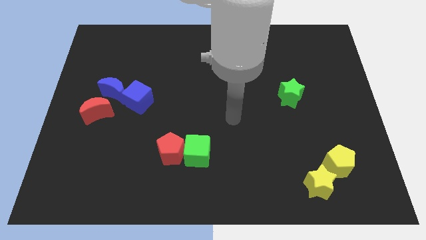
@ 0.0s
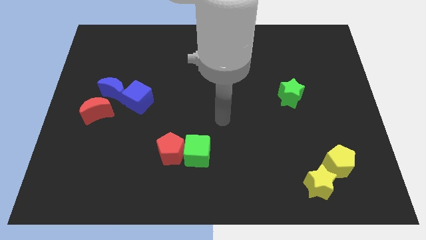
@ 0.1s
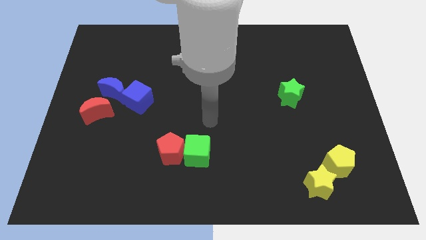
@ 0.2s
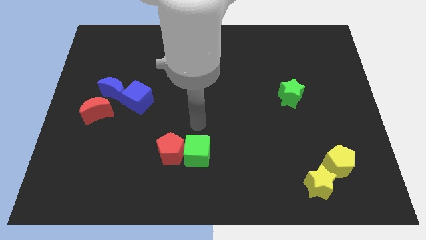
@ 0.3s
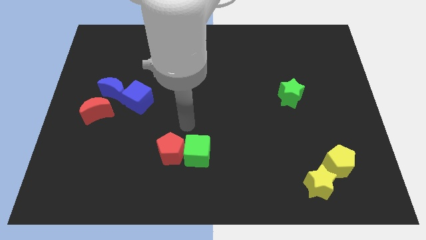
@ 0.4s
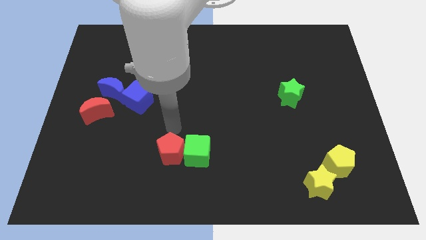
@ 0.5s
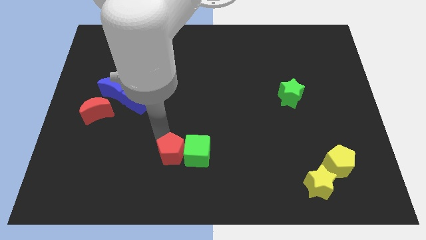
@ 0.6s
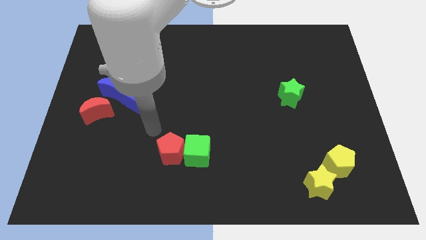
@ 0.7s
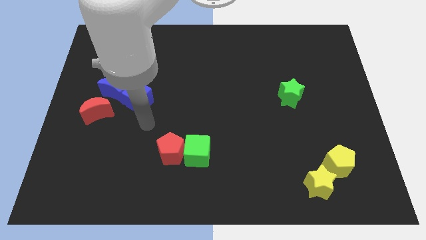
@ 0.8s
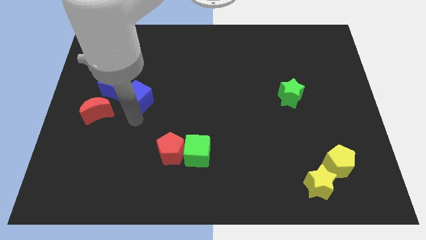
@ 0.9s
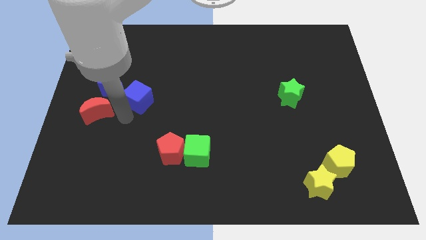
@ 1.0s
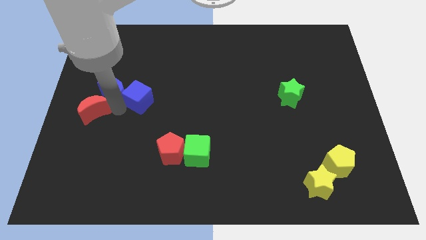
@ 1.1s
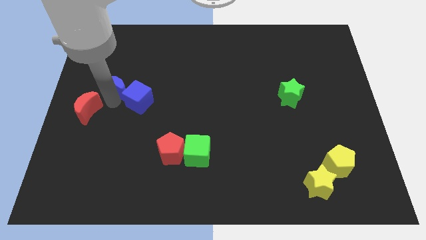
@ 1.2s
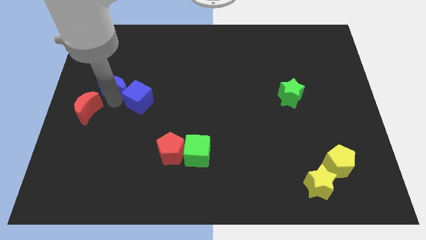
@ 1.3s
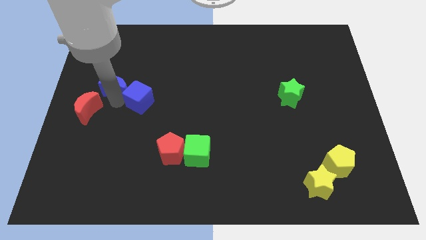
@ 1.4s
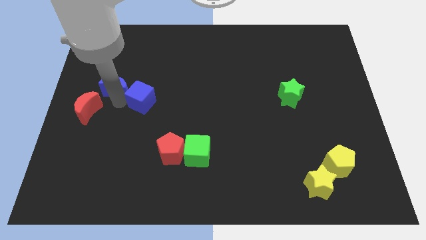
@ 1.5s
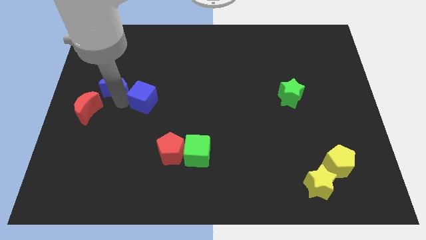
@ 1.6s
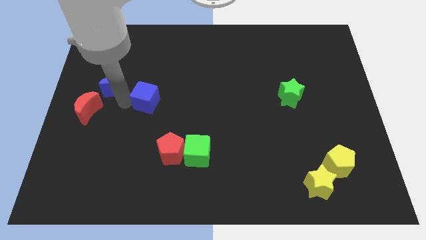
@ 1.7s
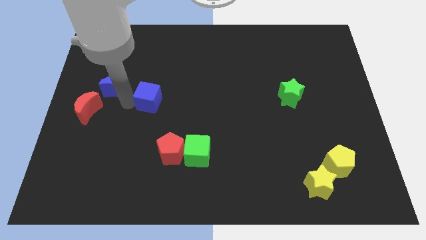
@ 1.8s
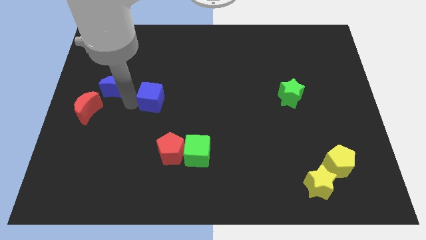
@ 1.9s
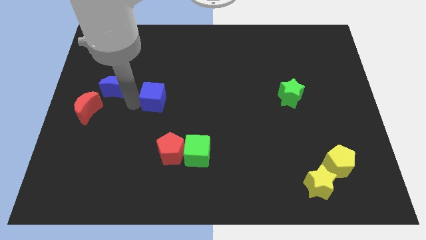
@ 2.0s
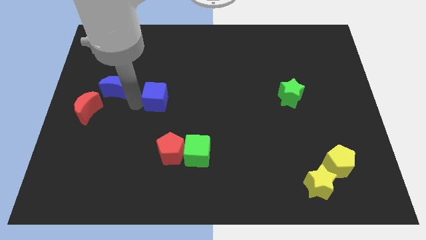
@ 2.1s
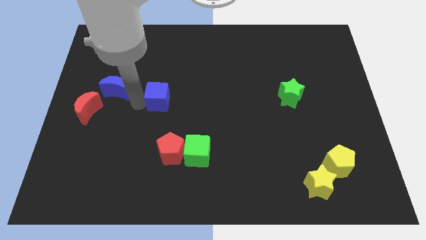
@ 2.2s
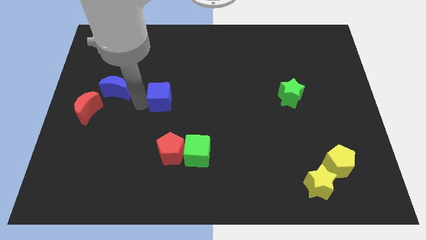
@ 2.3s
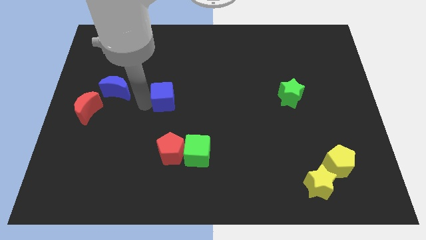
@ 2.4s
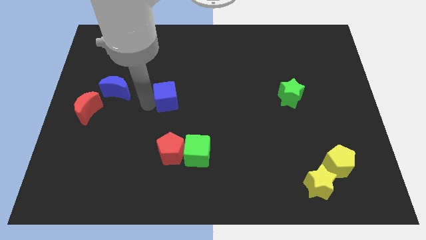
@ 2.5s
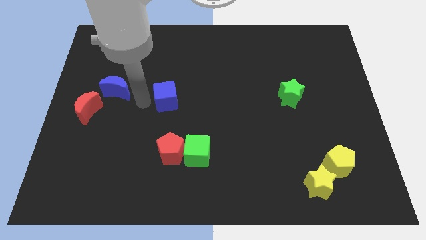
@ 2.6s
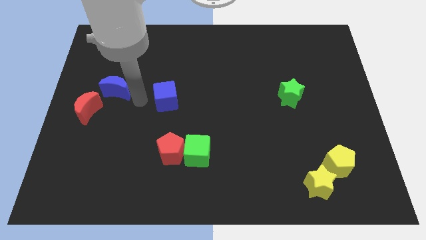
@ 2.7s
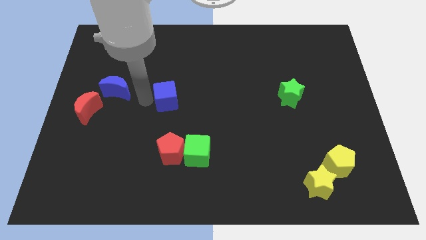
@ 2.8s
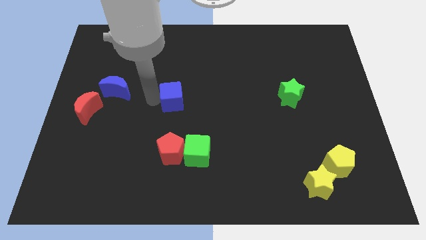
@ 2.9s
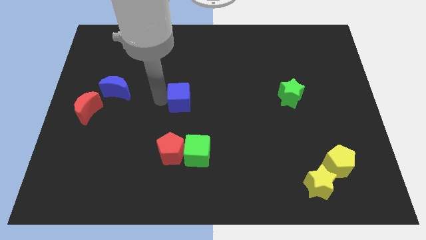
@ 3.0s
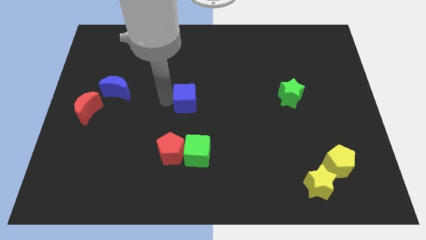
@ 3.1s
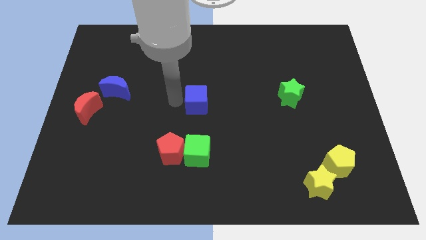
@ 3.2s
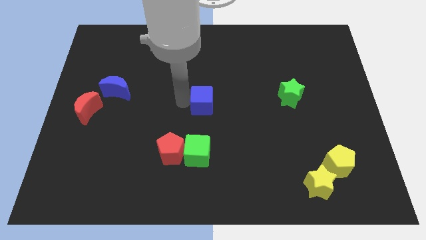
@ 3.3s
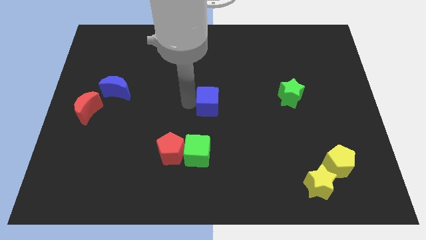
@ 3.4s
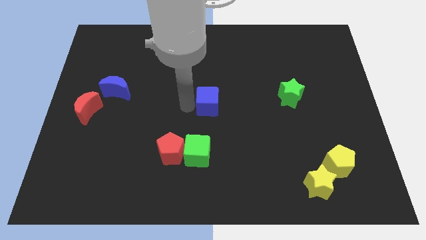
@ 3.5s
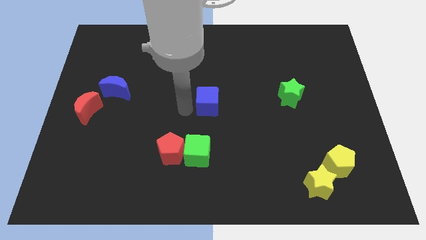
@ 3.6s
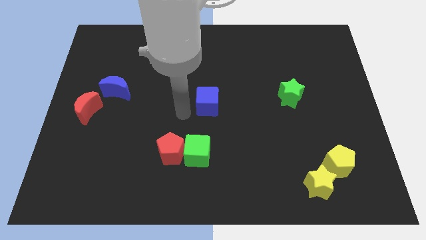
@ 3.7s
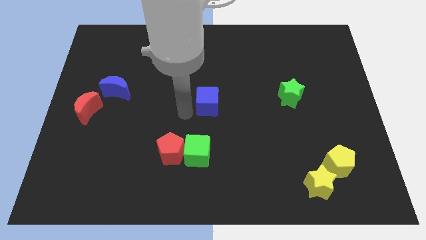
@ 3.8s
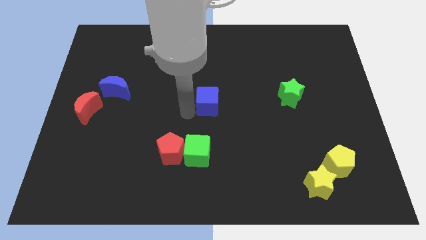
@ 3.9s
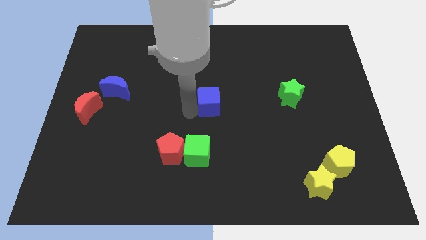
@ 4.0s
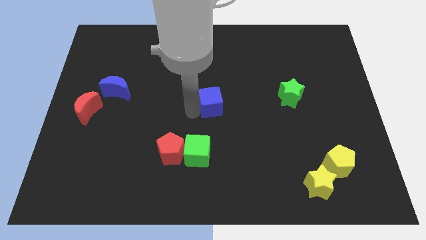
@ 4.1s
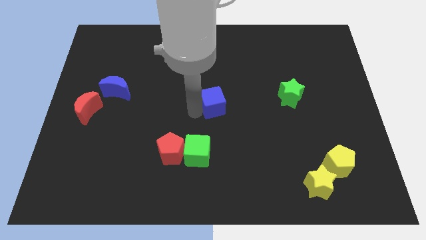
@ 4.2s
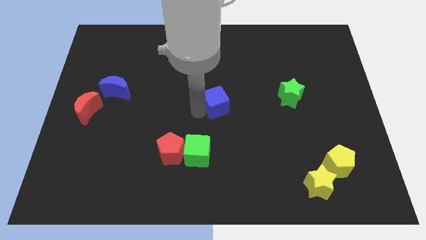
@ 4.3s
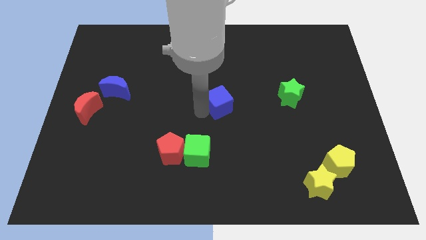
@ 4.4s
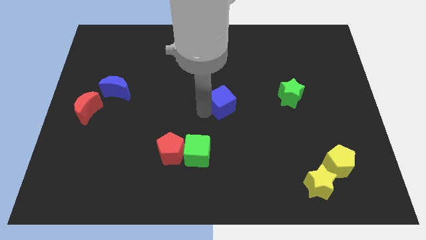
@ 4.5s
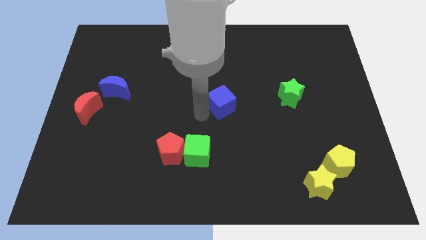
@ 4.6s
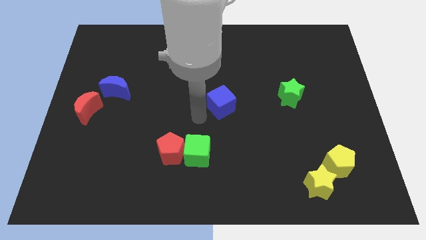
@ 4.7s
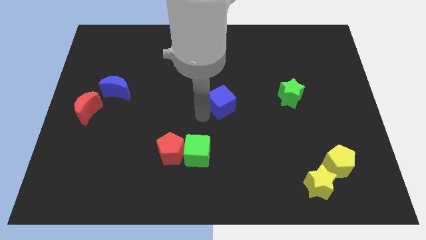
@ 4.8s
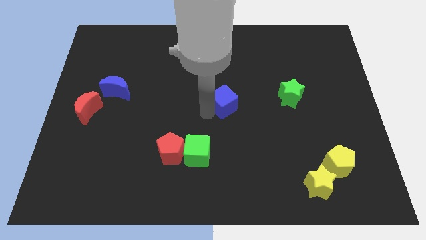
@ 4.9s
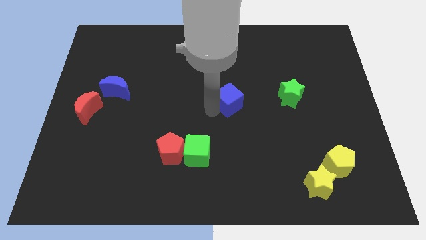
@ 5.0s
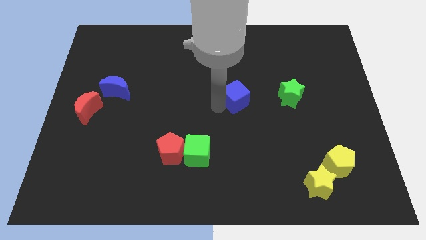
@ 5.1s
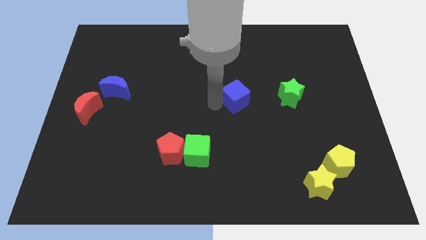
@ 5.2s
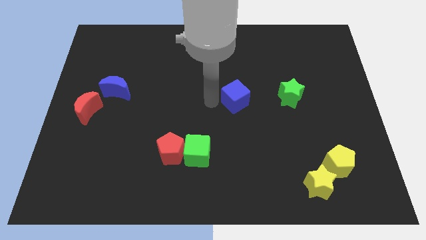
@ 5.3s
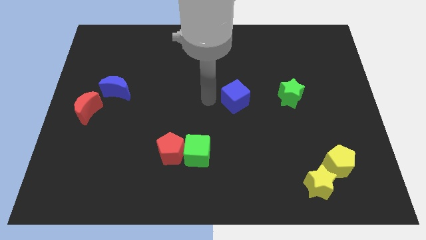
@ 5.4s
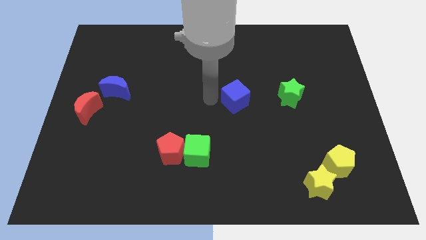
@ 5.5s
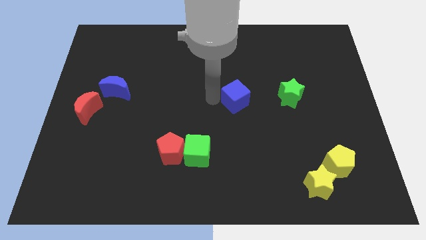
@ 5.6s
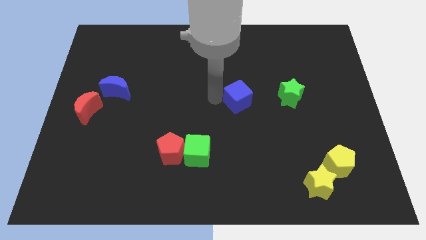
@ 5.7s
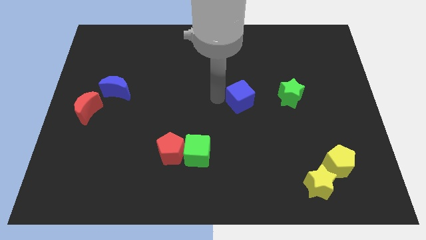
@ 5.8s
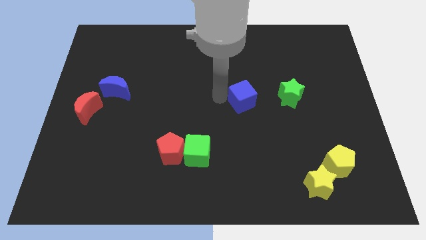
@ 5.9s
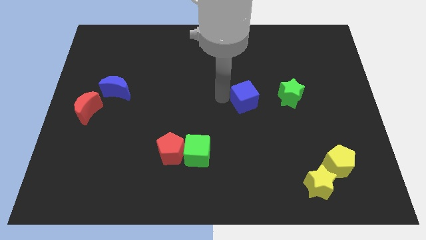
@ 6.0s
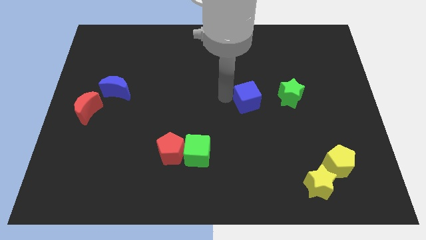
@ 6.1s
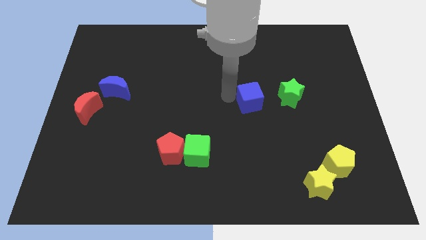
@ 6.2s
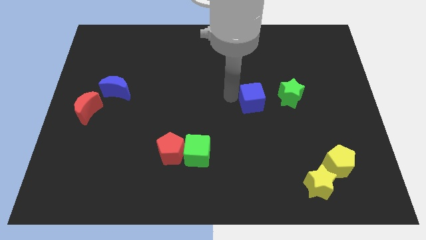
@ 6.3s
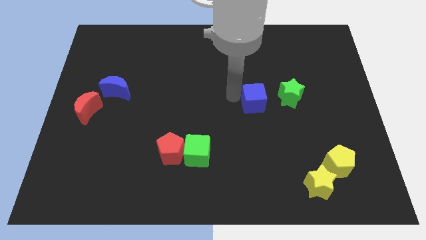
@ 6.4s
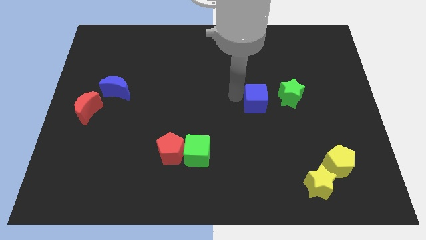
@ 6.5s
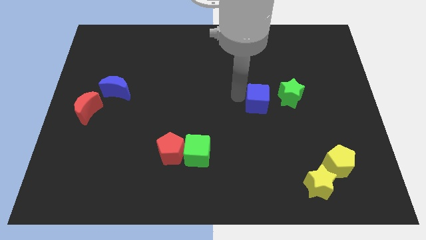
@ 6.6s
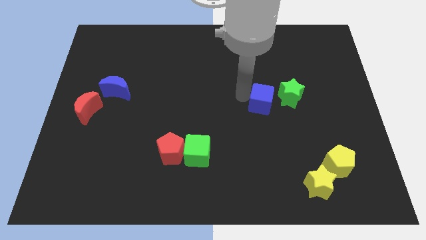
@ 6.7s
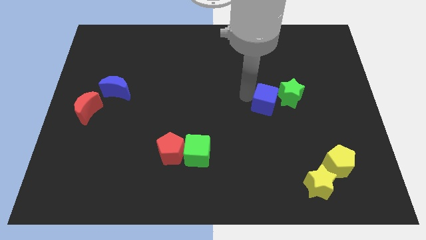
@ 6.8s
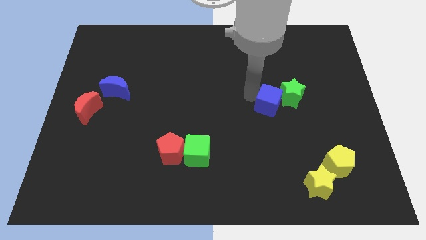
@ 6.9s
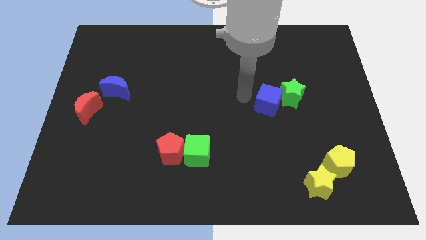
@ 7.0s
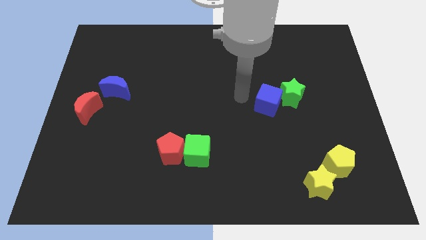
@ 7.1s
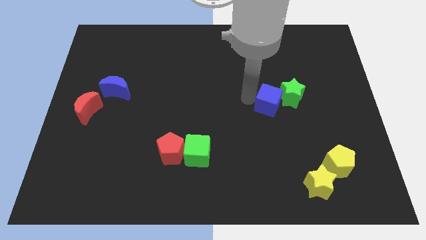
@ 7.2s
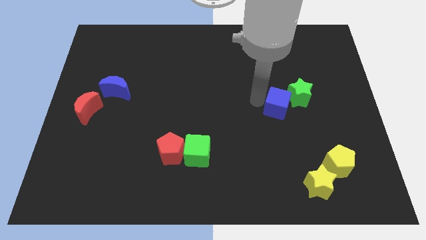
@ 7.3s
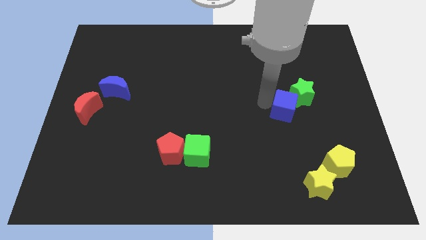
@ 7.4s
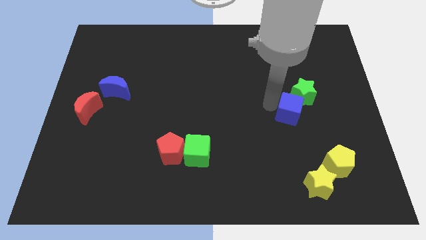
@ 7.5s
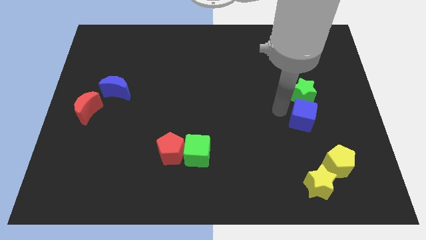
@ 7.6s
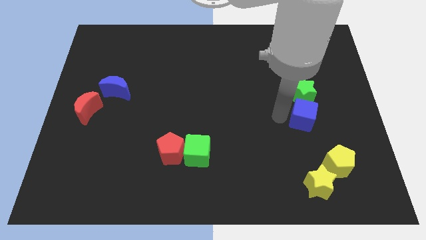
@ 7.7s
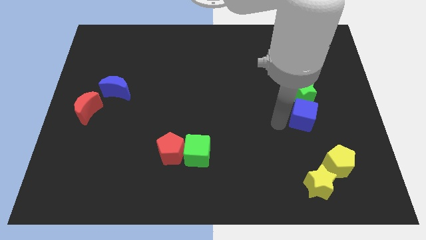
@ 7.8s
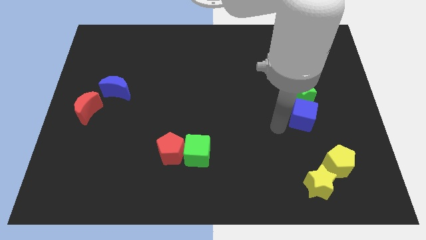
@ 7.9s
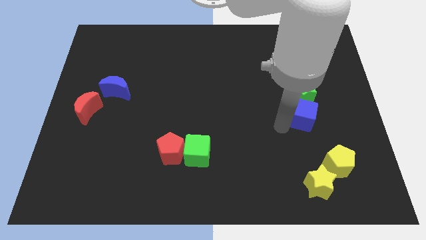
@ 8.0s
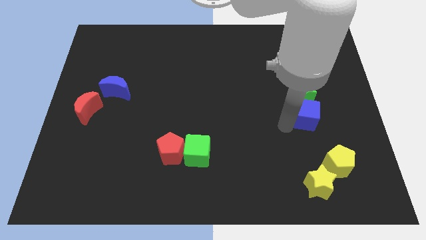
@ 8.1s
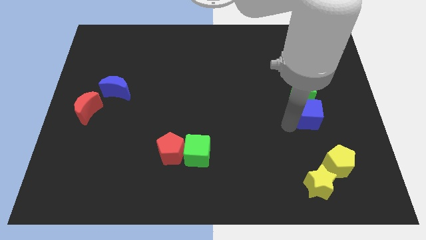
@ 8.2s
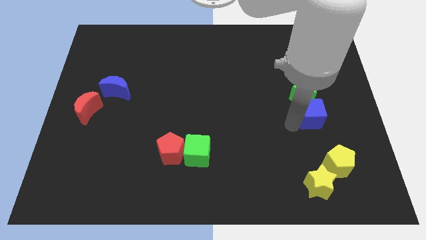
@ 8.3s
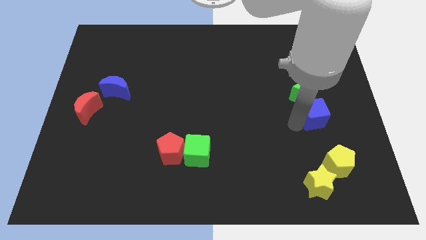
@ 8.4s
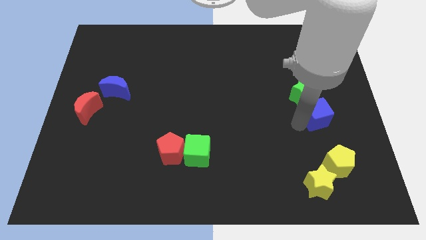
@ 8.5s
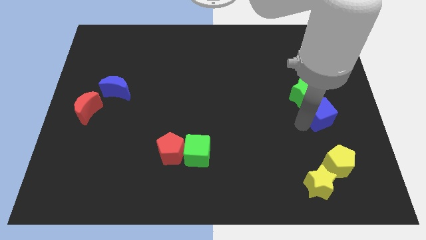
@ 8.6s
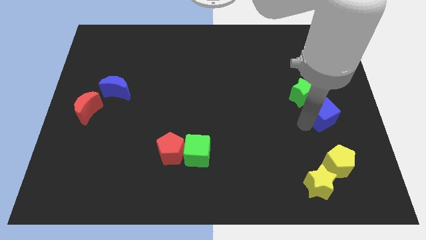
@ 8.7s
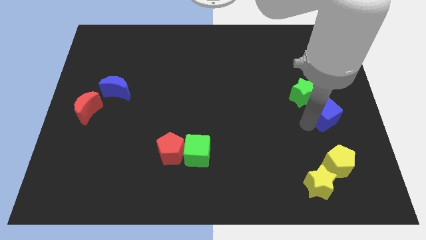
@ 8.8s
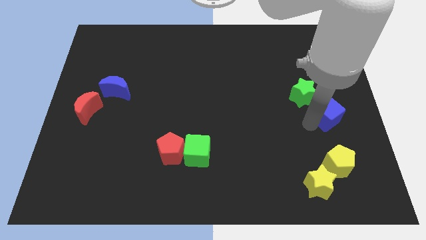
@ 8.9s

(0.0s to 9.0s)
push the blue cube to the right side of the board
